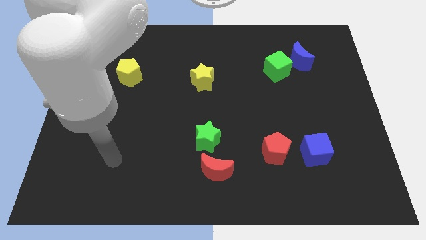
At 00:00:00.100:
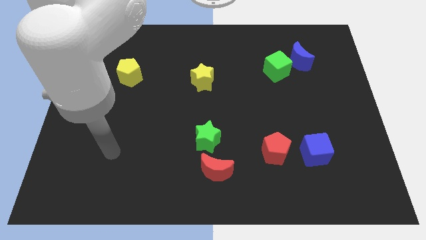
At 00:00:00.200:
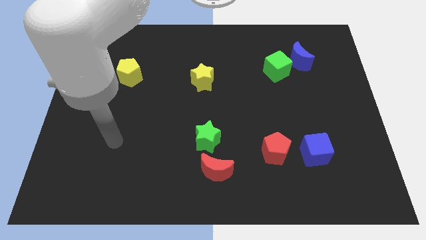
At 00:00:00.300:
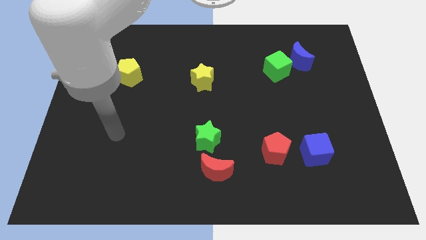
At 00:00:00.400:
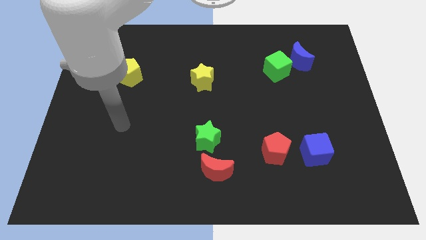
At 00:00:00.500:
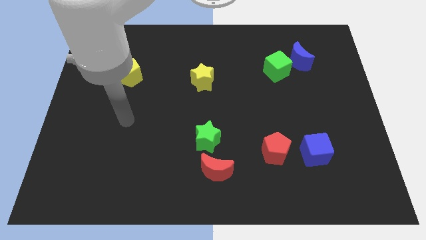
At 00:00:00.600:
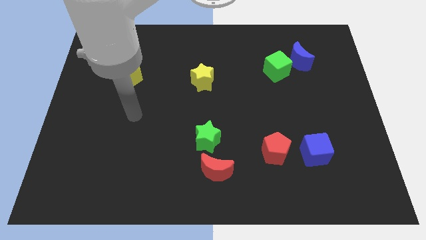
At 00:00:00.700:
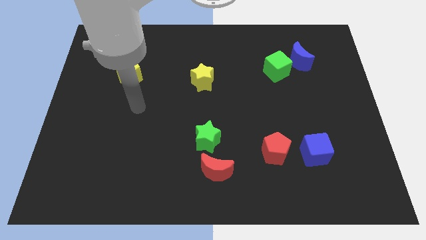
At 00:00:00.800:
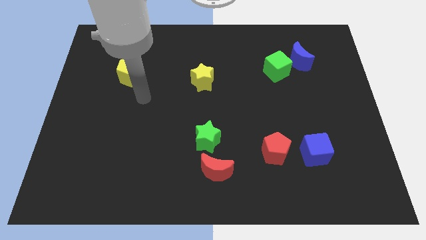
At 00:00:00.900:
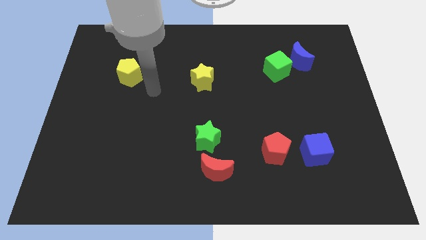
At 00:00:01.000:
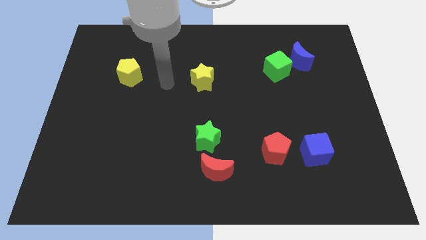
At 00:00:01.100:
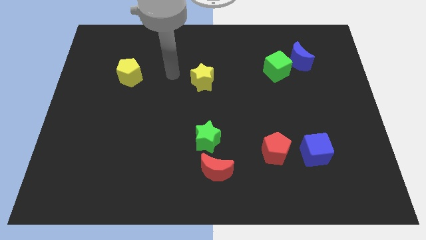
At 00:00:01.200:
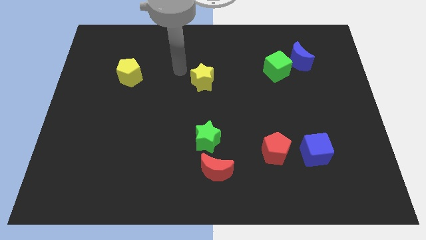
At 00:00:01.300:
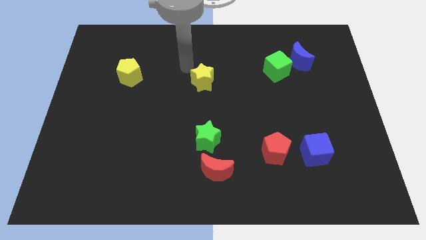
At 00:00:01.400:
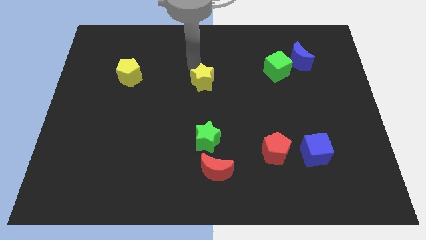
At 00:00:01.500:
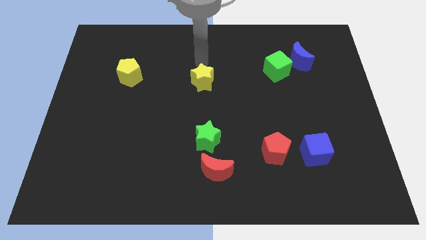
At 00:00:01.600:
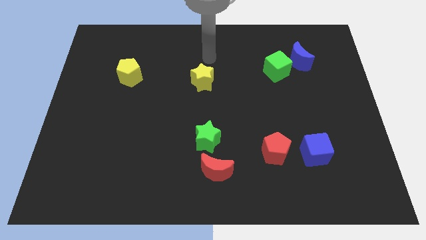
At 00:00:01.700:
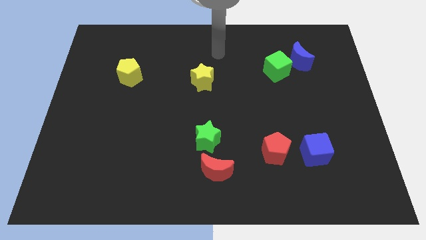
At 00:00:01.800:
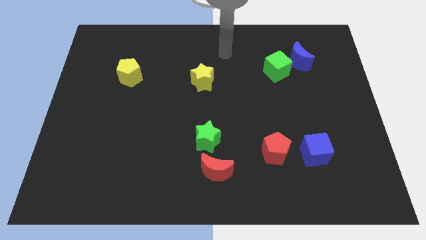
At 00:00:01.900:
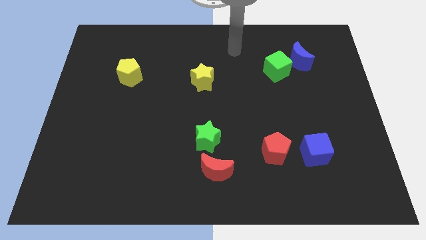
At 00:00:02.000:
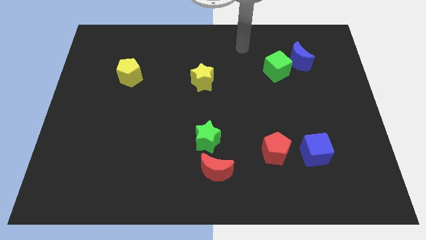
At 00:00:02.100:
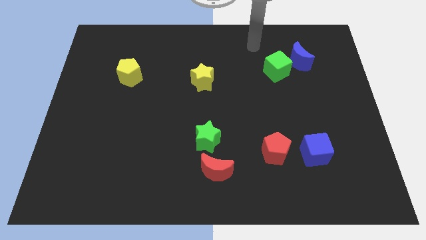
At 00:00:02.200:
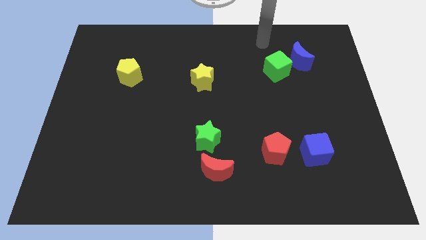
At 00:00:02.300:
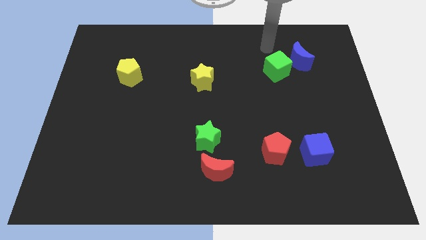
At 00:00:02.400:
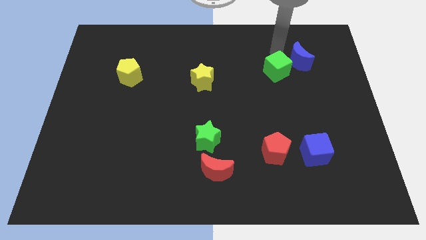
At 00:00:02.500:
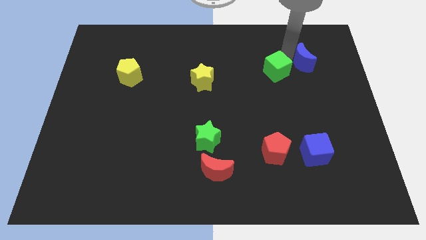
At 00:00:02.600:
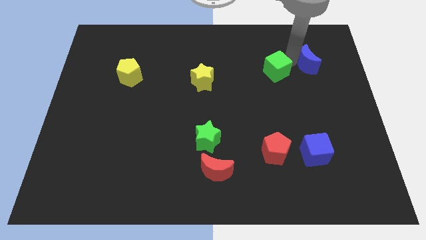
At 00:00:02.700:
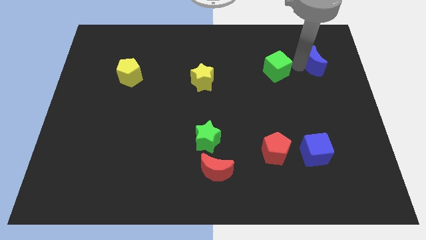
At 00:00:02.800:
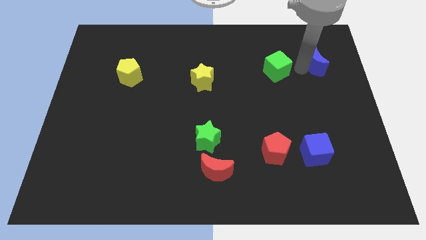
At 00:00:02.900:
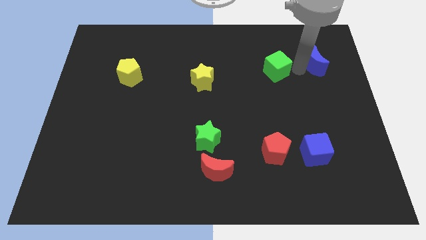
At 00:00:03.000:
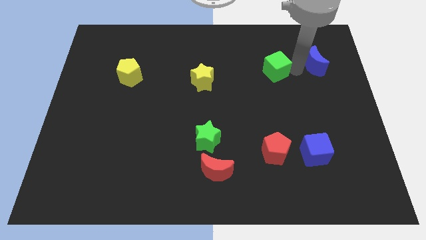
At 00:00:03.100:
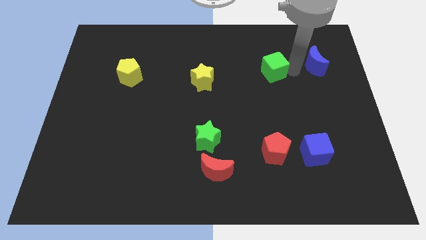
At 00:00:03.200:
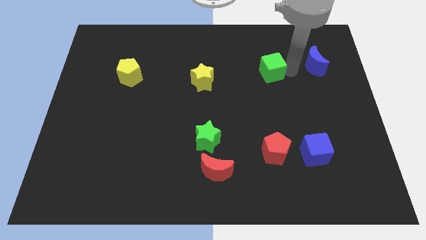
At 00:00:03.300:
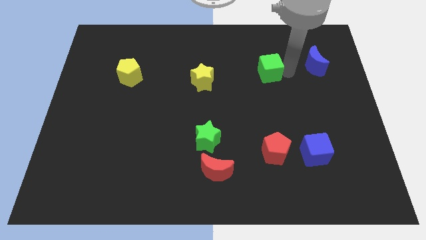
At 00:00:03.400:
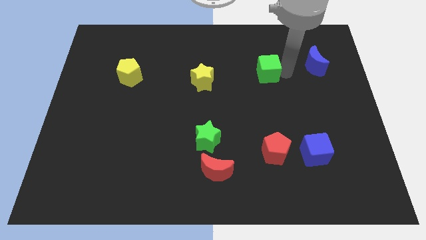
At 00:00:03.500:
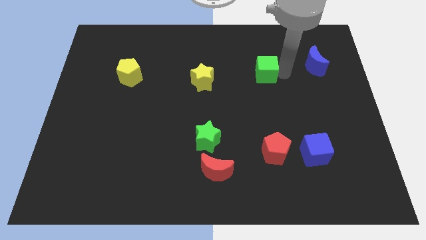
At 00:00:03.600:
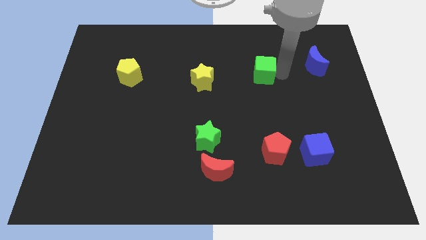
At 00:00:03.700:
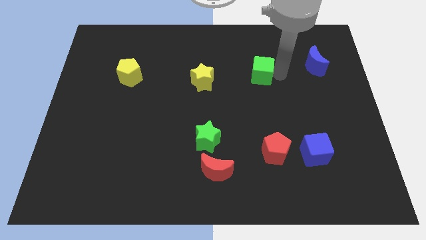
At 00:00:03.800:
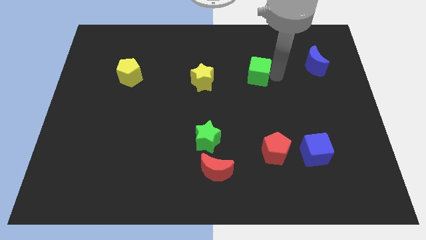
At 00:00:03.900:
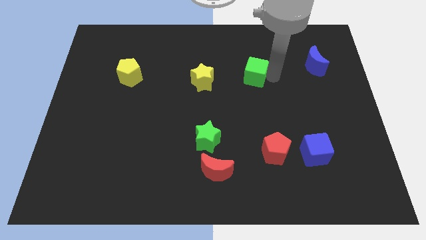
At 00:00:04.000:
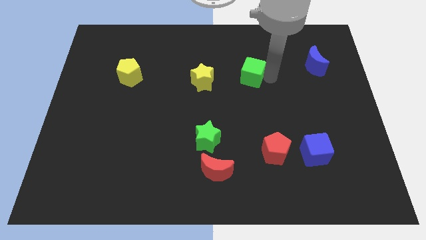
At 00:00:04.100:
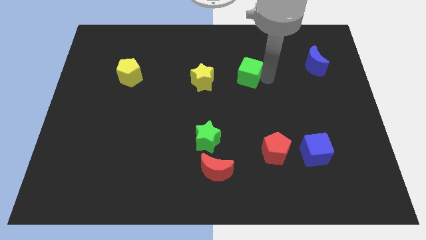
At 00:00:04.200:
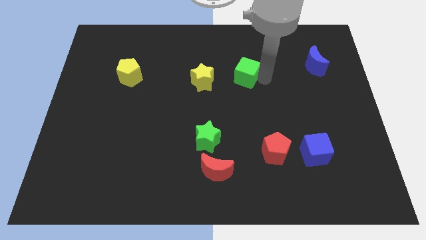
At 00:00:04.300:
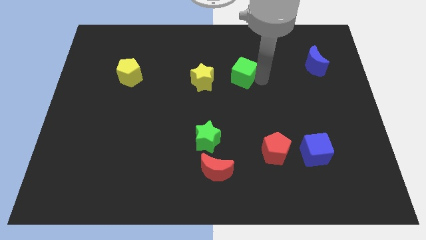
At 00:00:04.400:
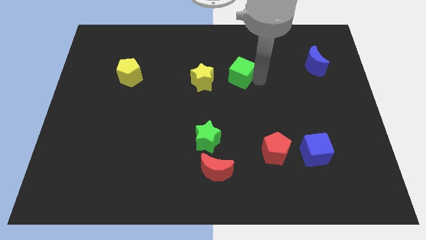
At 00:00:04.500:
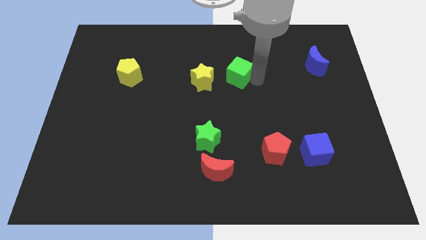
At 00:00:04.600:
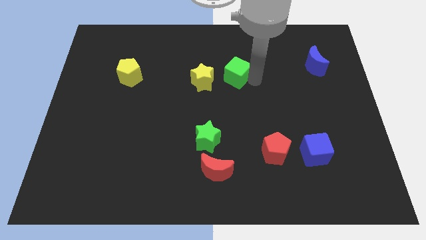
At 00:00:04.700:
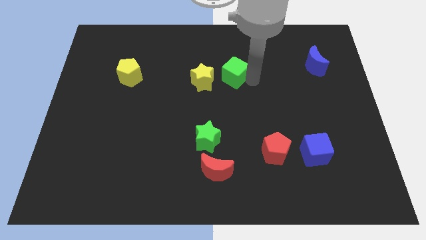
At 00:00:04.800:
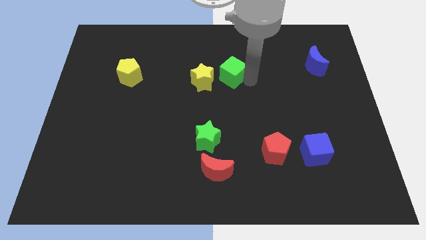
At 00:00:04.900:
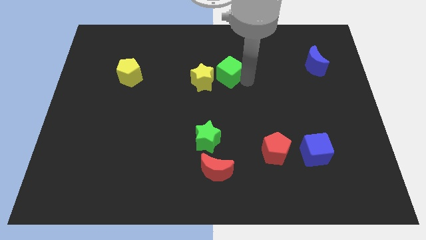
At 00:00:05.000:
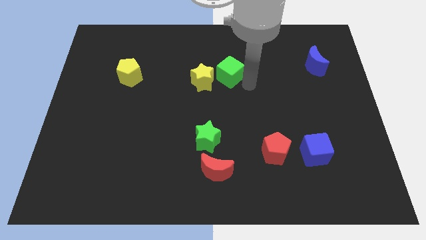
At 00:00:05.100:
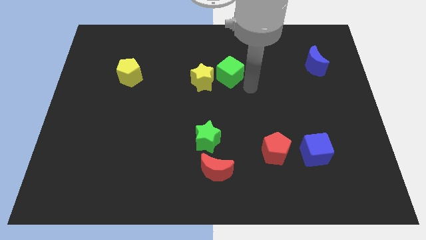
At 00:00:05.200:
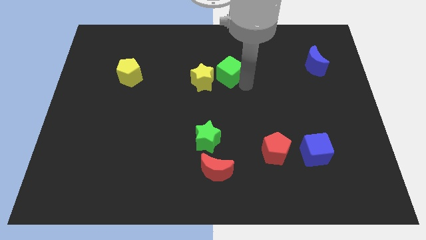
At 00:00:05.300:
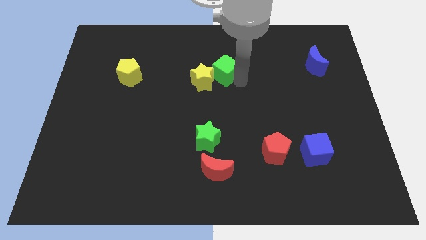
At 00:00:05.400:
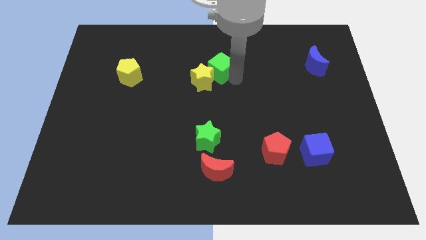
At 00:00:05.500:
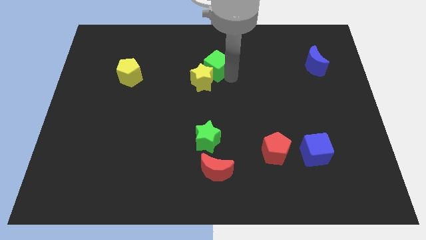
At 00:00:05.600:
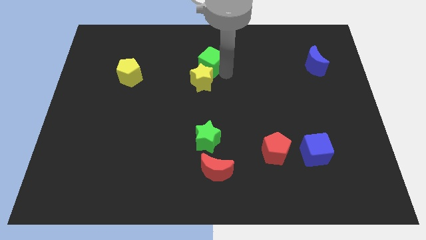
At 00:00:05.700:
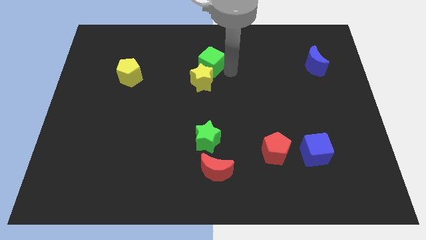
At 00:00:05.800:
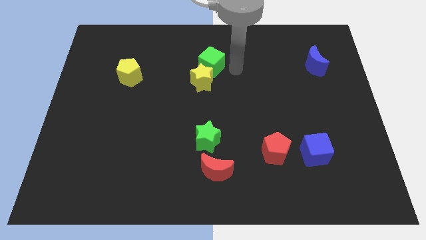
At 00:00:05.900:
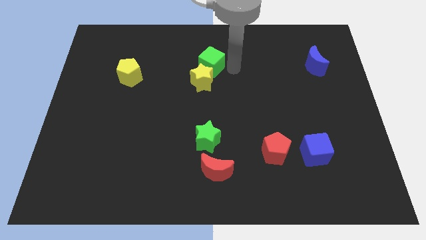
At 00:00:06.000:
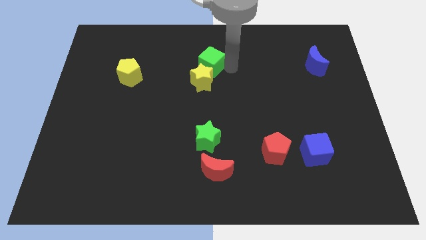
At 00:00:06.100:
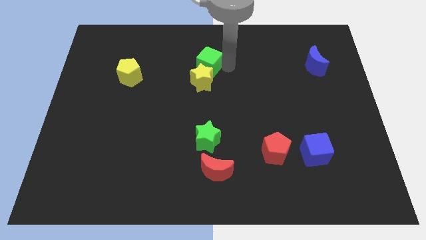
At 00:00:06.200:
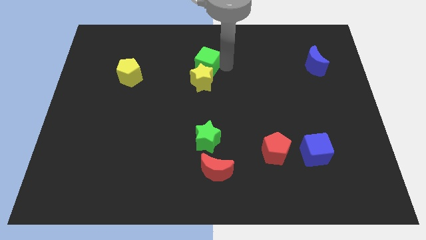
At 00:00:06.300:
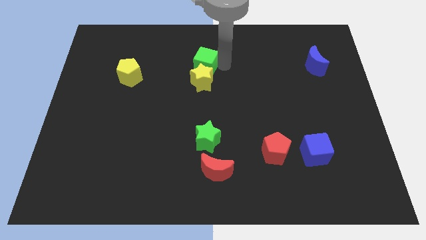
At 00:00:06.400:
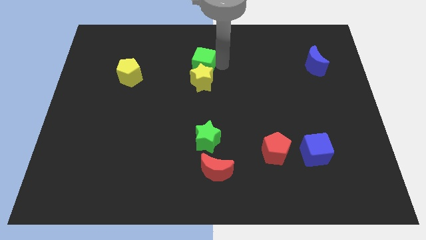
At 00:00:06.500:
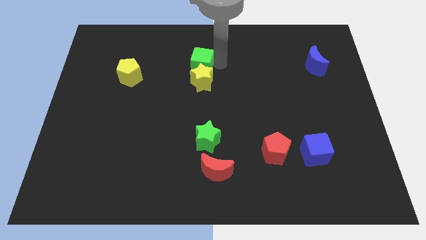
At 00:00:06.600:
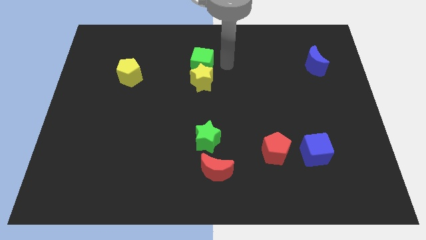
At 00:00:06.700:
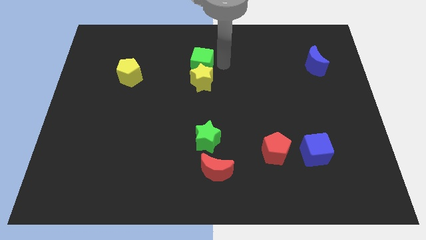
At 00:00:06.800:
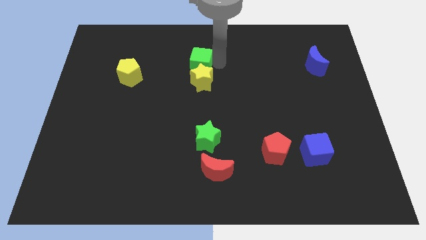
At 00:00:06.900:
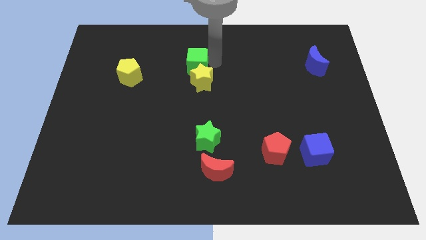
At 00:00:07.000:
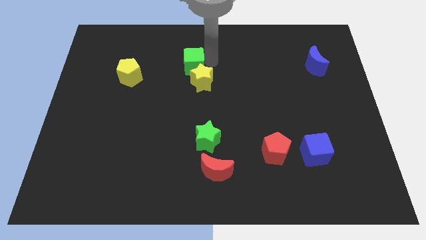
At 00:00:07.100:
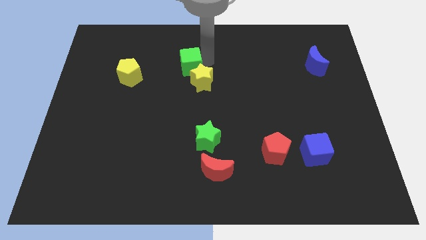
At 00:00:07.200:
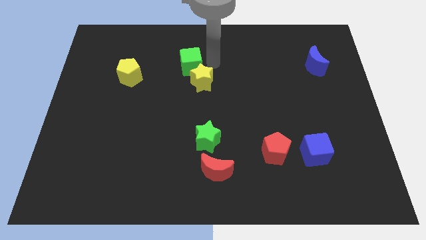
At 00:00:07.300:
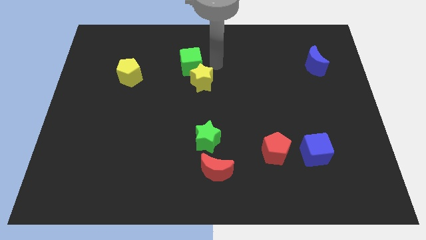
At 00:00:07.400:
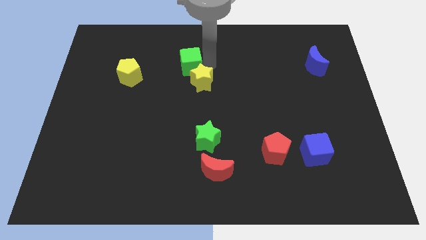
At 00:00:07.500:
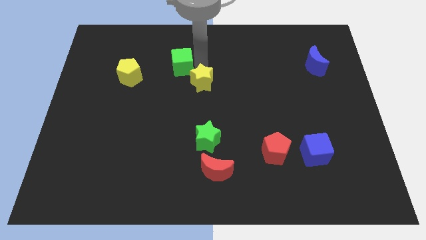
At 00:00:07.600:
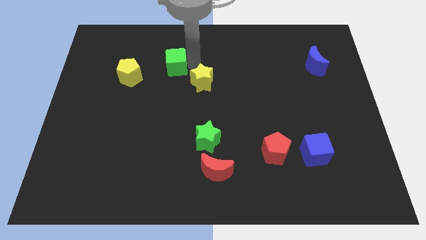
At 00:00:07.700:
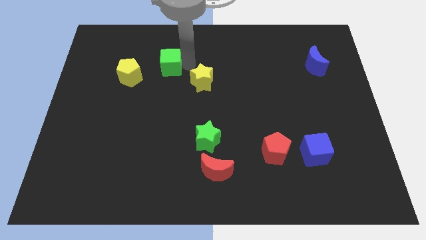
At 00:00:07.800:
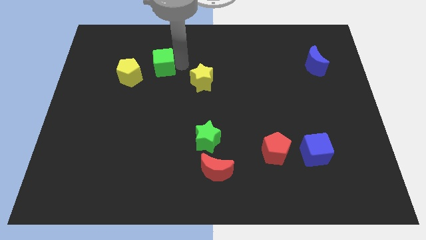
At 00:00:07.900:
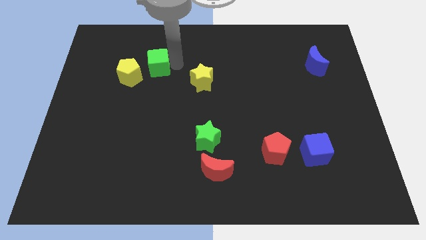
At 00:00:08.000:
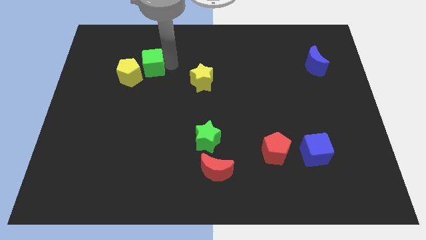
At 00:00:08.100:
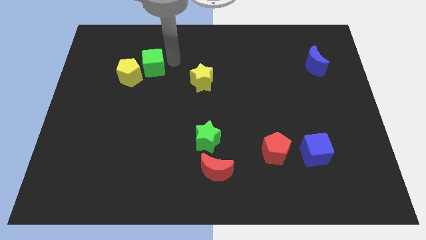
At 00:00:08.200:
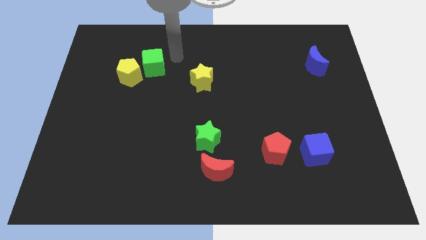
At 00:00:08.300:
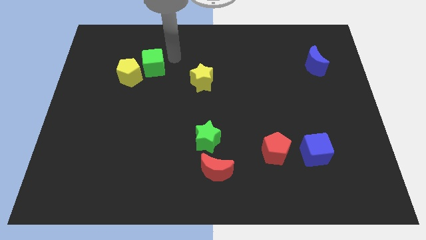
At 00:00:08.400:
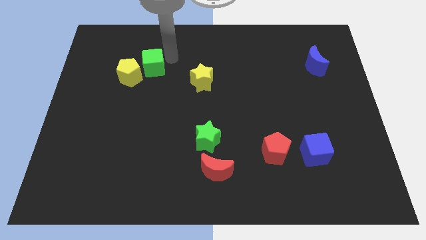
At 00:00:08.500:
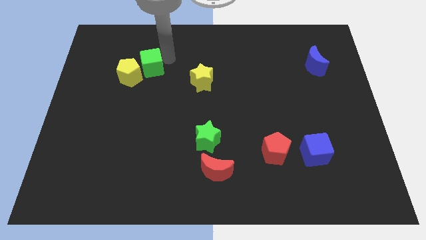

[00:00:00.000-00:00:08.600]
put the green cube next to the yellow pentagon
